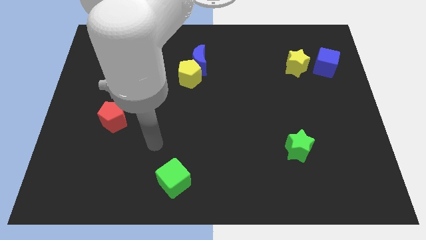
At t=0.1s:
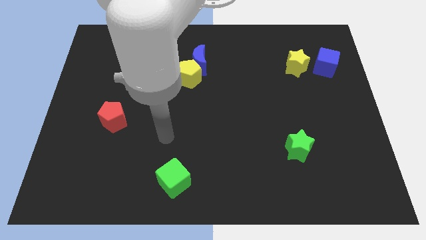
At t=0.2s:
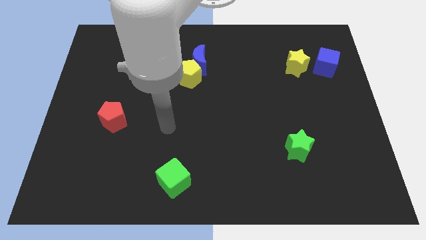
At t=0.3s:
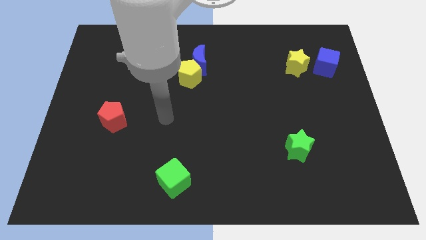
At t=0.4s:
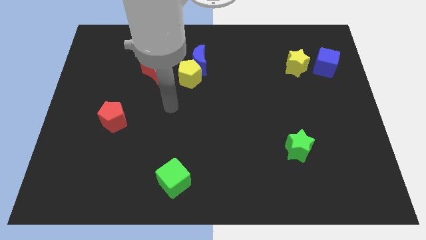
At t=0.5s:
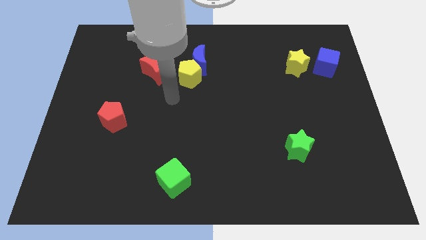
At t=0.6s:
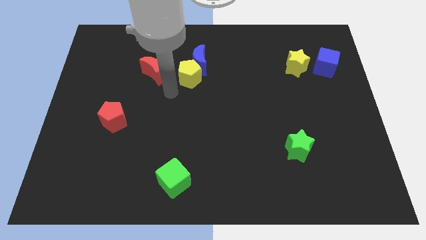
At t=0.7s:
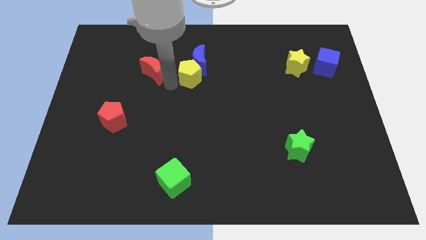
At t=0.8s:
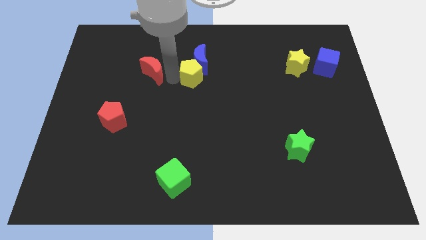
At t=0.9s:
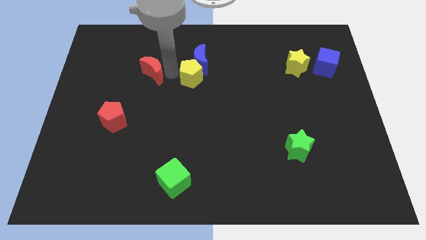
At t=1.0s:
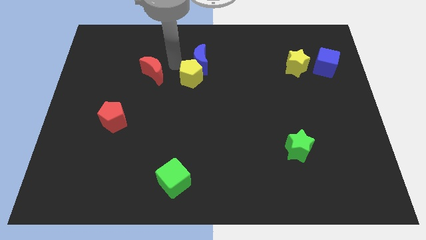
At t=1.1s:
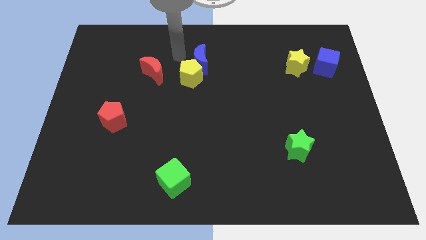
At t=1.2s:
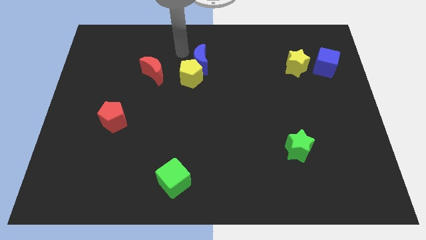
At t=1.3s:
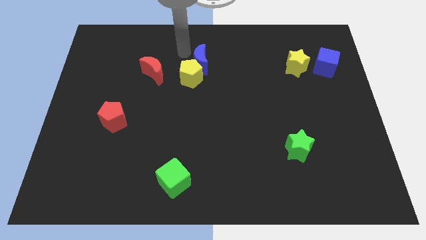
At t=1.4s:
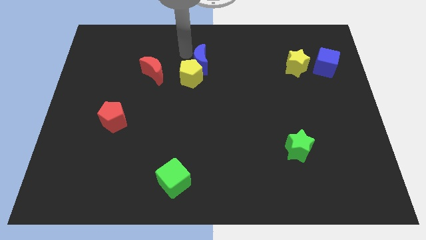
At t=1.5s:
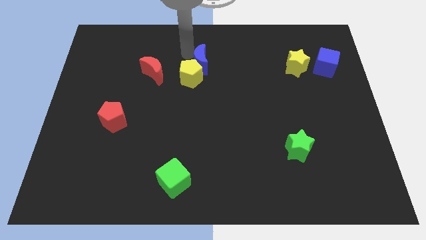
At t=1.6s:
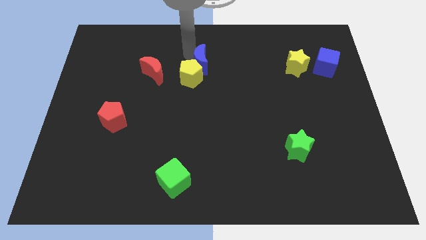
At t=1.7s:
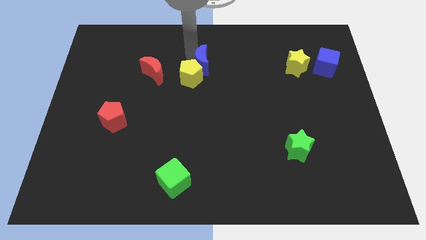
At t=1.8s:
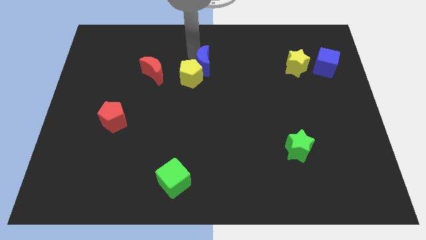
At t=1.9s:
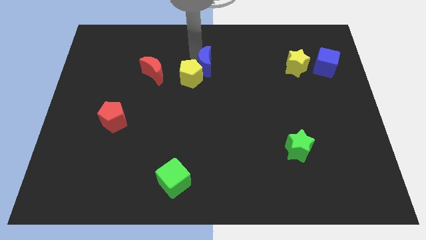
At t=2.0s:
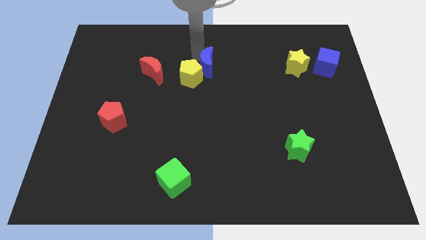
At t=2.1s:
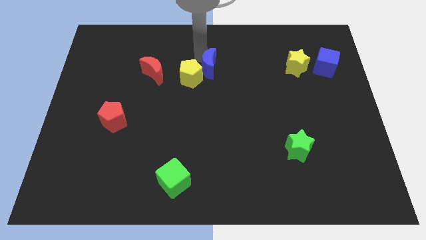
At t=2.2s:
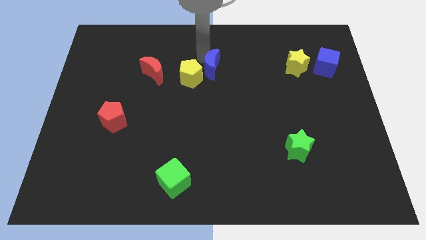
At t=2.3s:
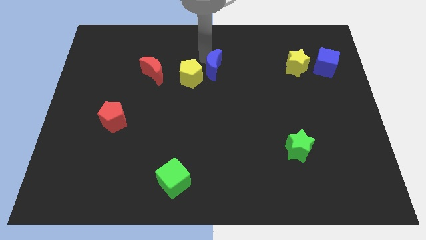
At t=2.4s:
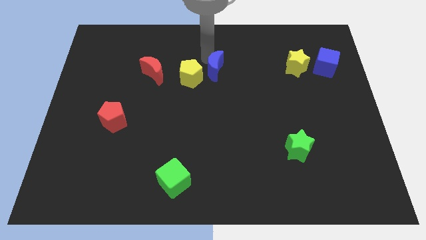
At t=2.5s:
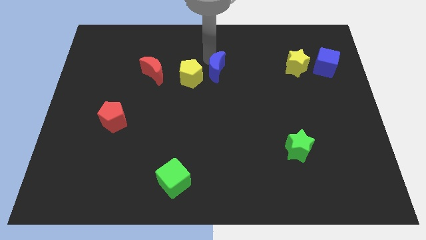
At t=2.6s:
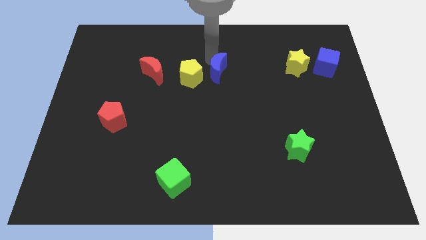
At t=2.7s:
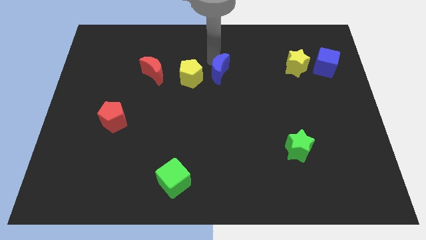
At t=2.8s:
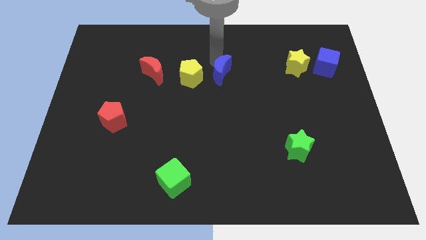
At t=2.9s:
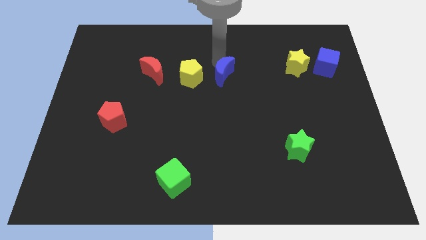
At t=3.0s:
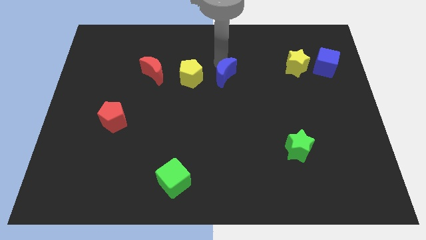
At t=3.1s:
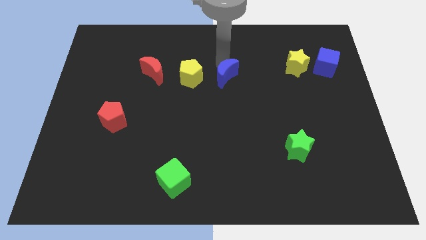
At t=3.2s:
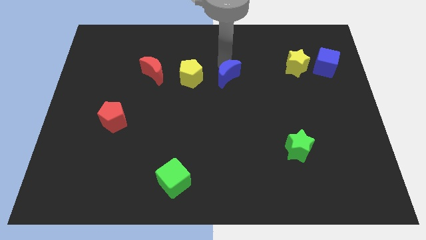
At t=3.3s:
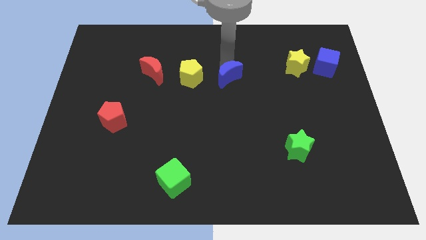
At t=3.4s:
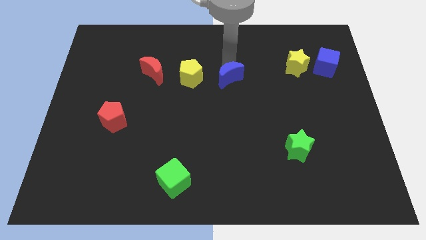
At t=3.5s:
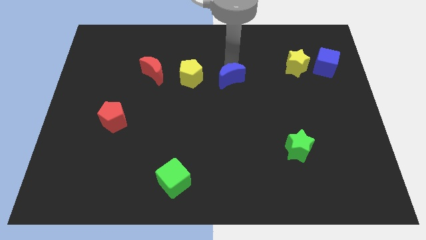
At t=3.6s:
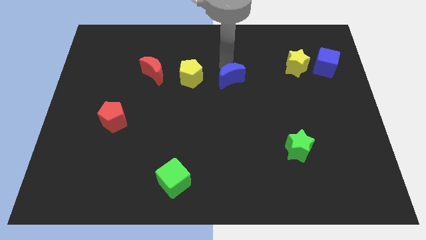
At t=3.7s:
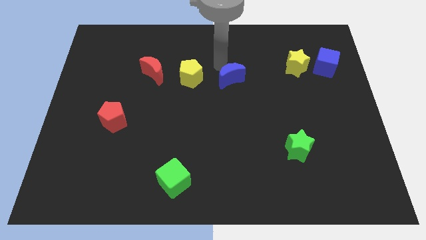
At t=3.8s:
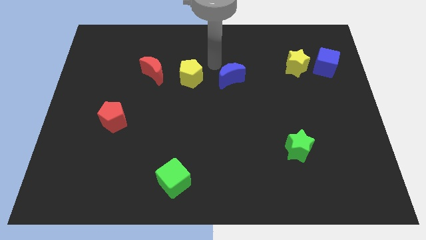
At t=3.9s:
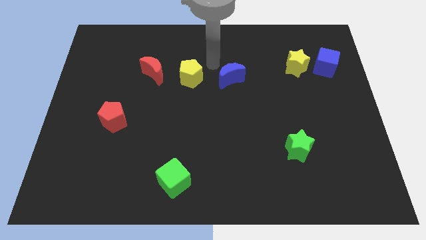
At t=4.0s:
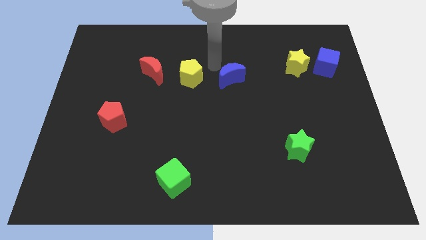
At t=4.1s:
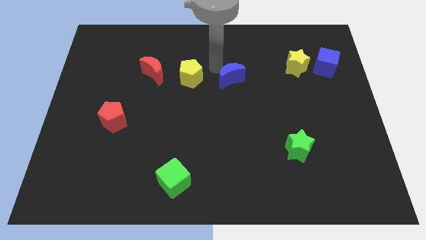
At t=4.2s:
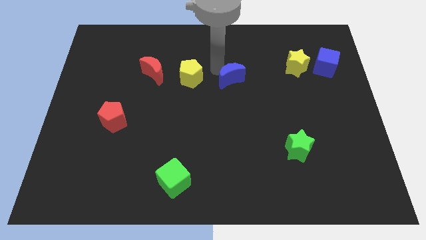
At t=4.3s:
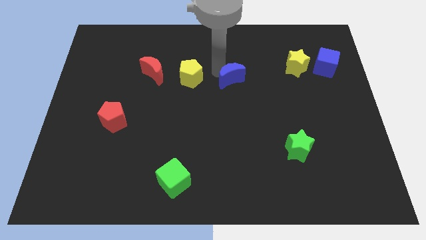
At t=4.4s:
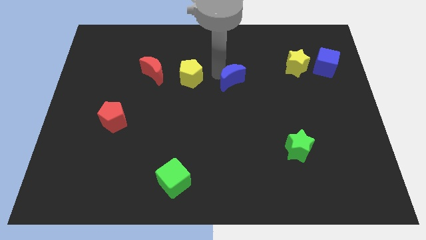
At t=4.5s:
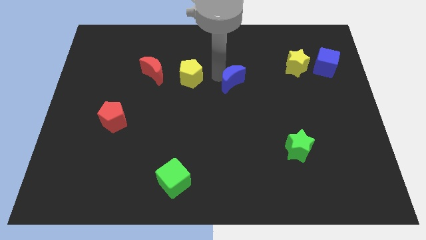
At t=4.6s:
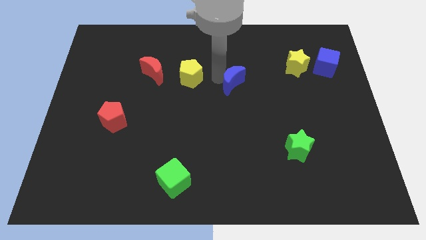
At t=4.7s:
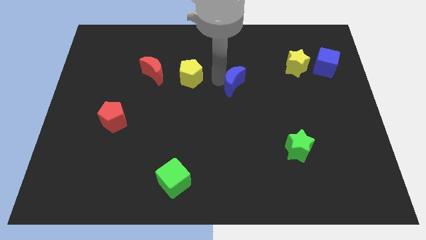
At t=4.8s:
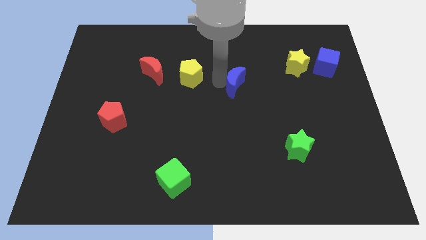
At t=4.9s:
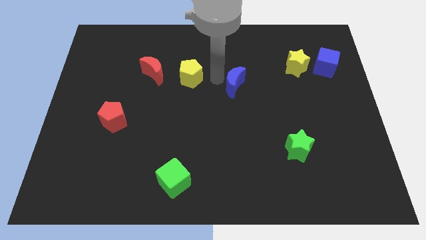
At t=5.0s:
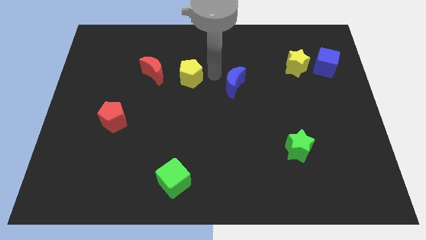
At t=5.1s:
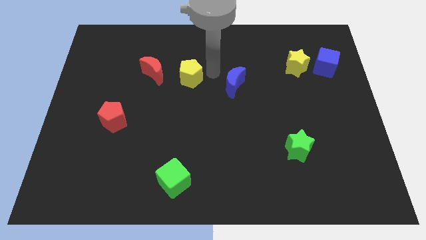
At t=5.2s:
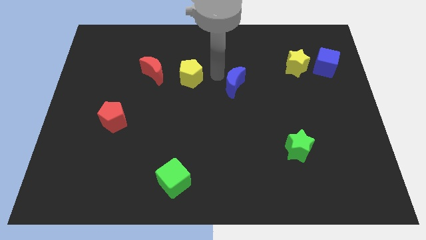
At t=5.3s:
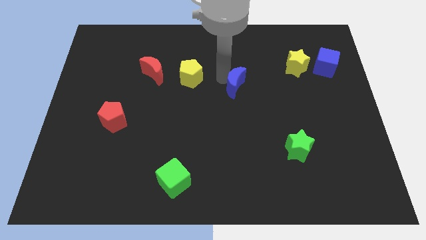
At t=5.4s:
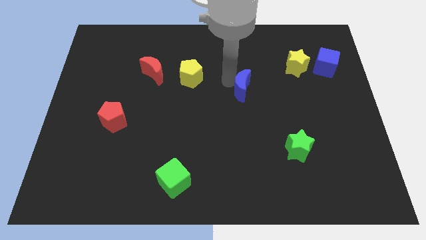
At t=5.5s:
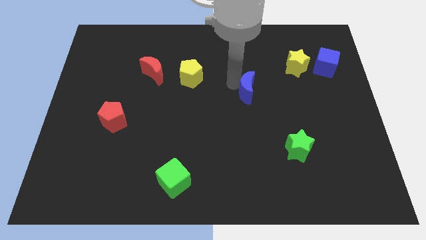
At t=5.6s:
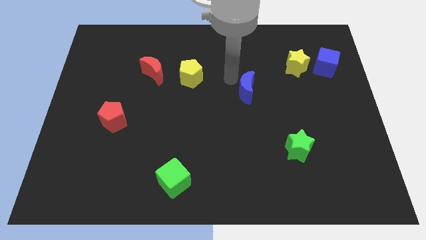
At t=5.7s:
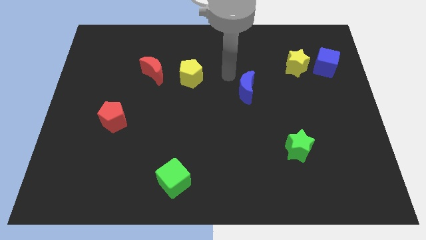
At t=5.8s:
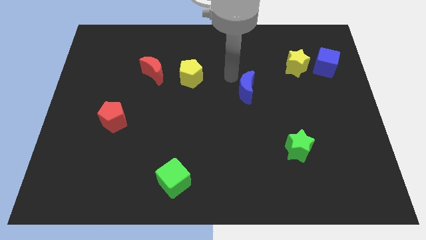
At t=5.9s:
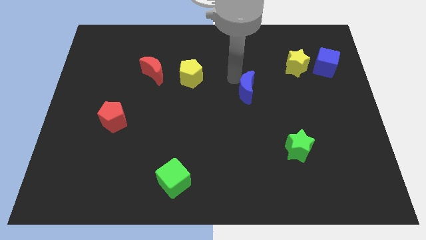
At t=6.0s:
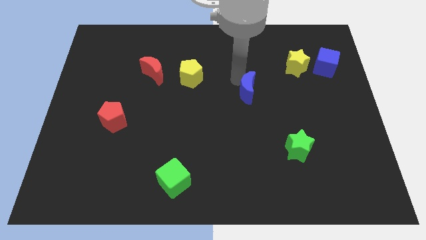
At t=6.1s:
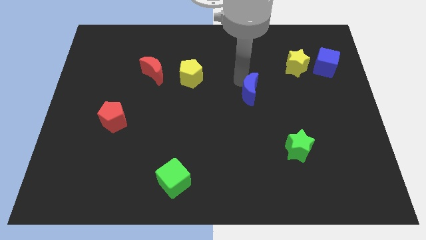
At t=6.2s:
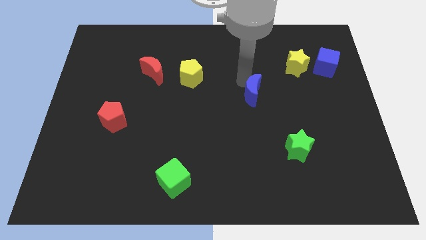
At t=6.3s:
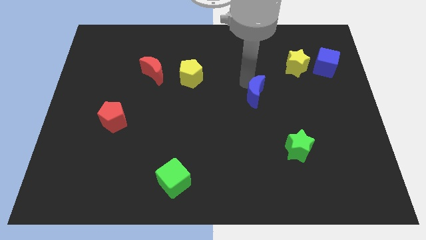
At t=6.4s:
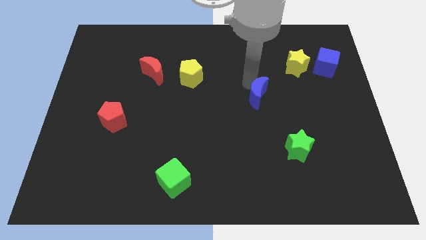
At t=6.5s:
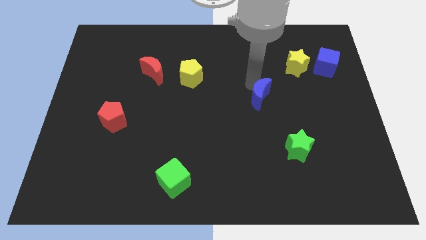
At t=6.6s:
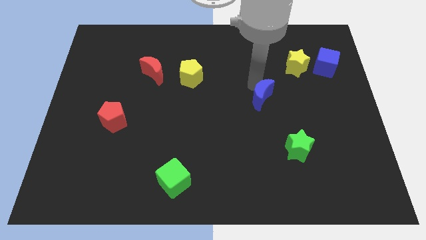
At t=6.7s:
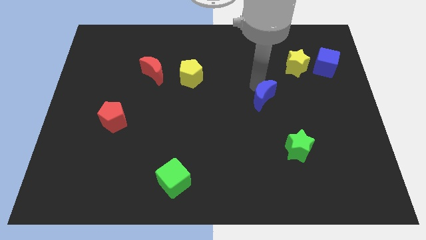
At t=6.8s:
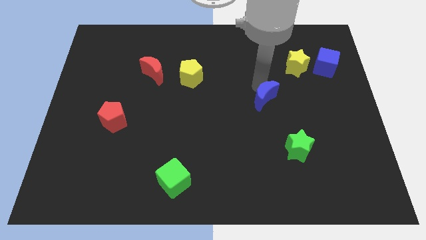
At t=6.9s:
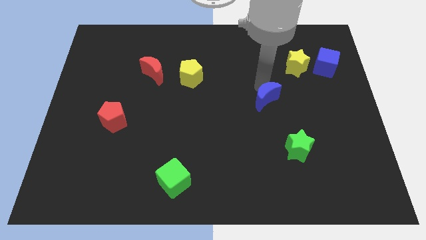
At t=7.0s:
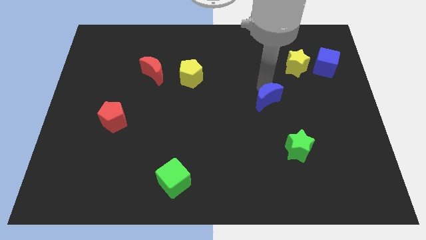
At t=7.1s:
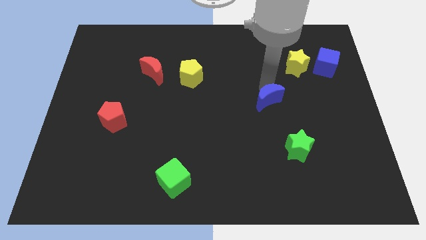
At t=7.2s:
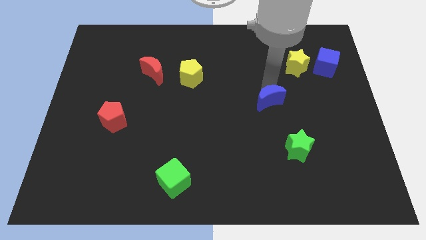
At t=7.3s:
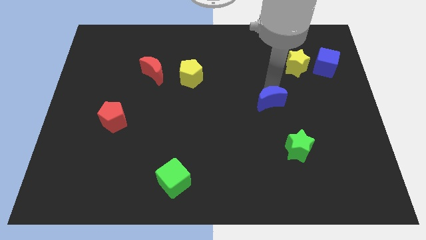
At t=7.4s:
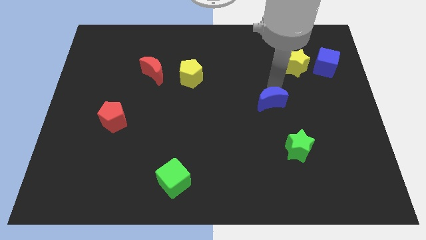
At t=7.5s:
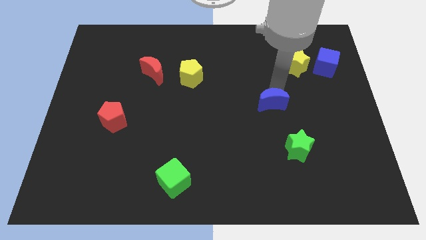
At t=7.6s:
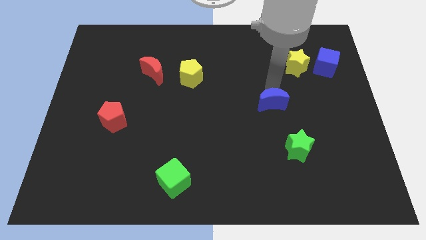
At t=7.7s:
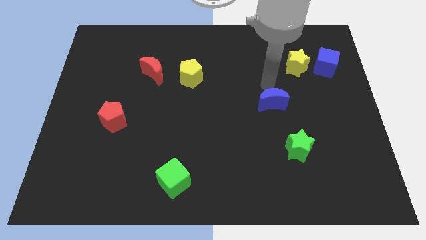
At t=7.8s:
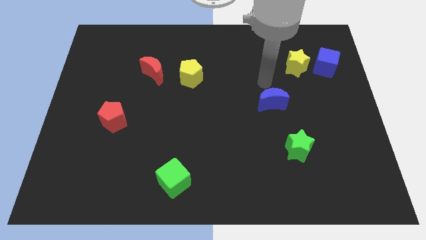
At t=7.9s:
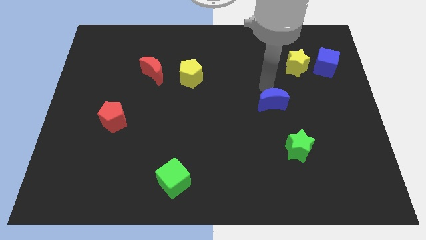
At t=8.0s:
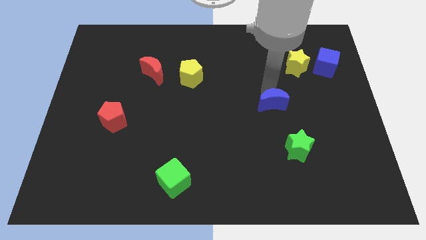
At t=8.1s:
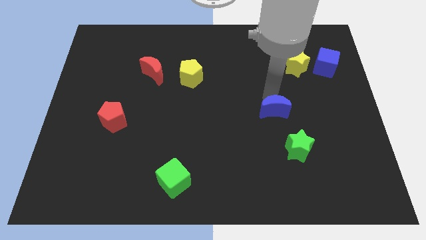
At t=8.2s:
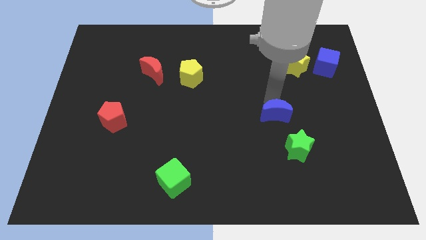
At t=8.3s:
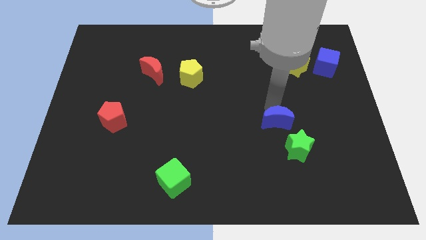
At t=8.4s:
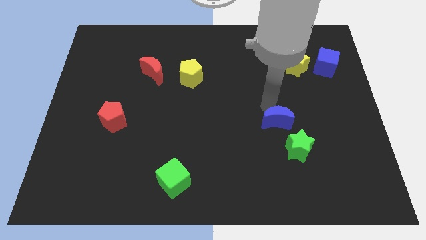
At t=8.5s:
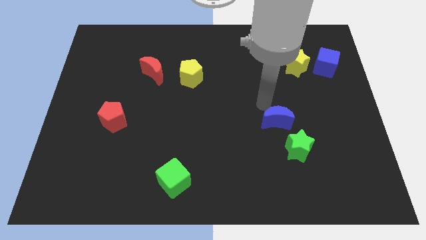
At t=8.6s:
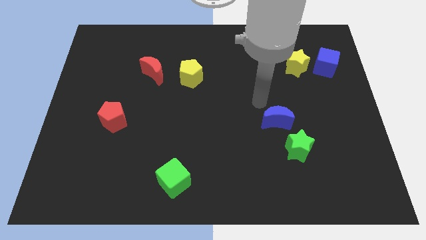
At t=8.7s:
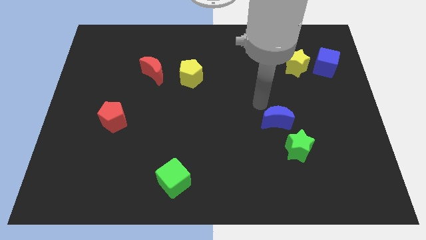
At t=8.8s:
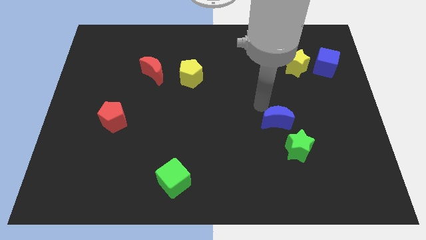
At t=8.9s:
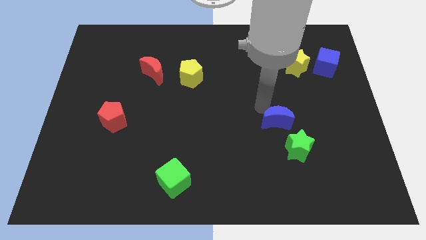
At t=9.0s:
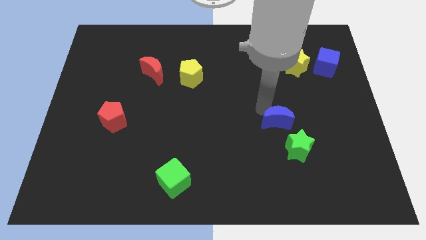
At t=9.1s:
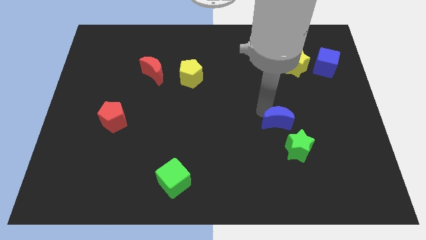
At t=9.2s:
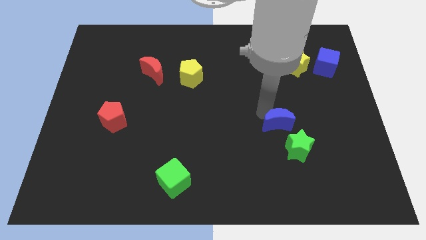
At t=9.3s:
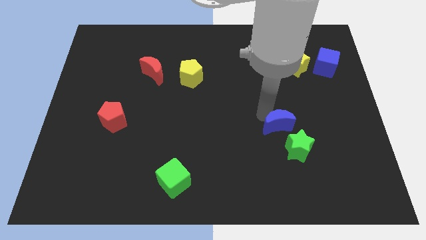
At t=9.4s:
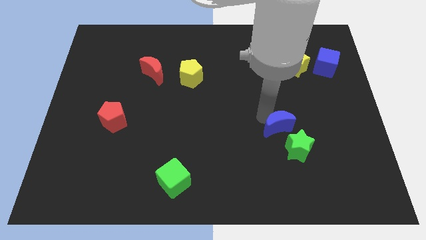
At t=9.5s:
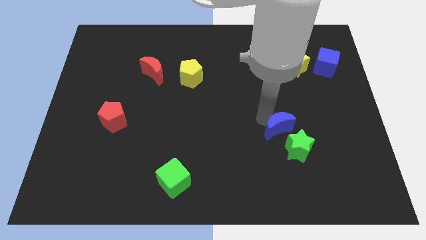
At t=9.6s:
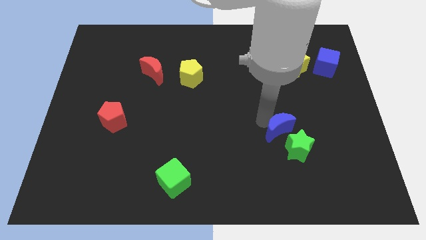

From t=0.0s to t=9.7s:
slide the blue moon next to the green star
